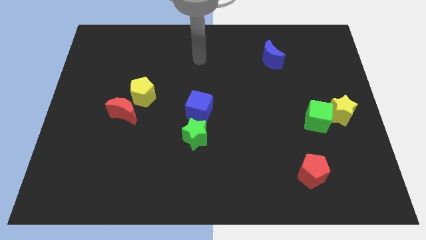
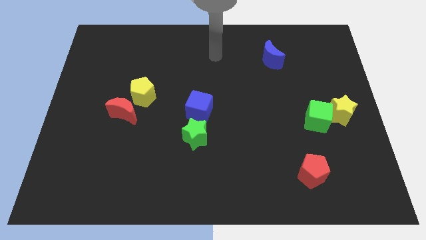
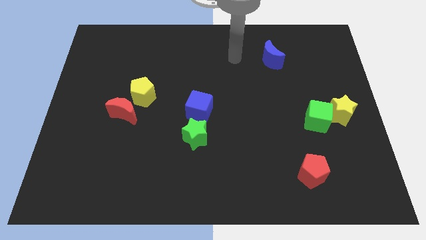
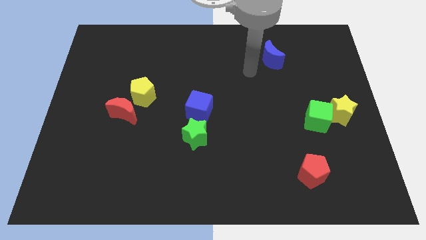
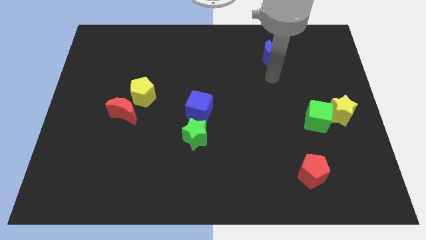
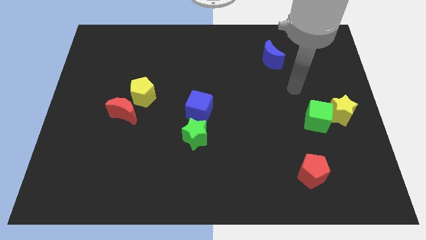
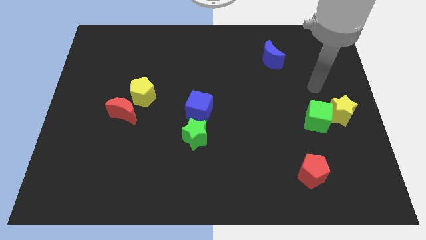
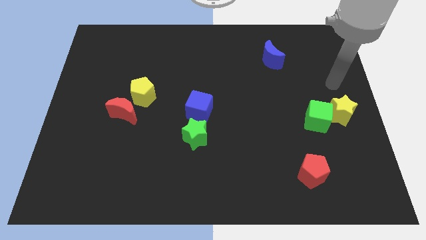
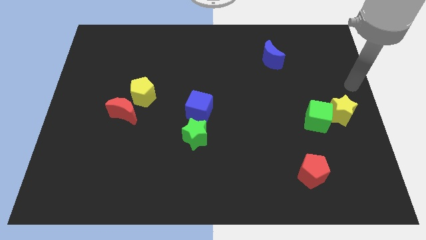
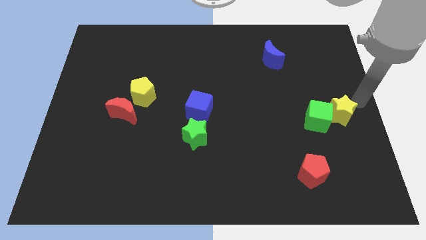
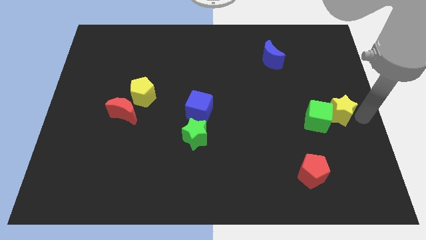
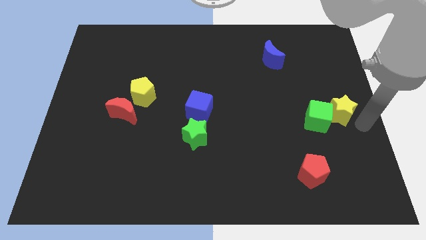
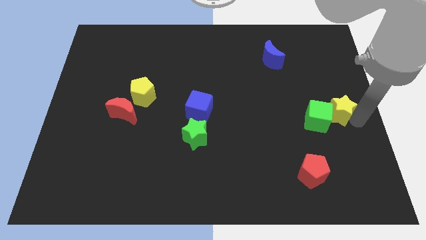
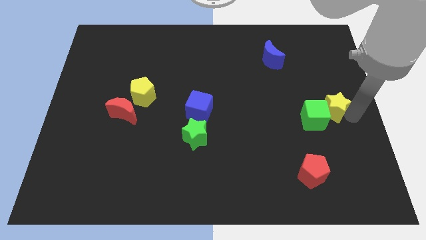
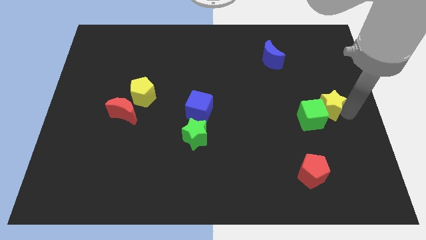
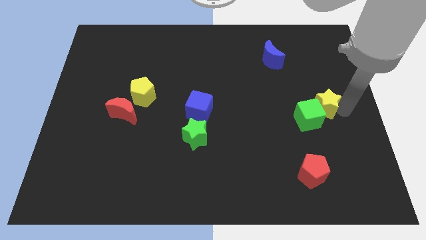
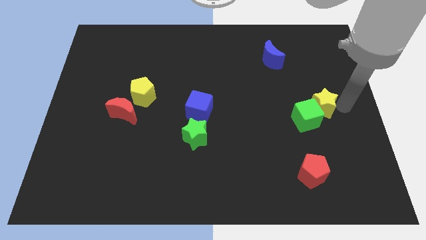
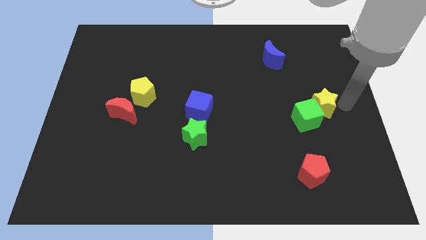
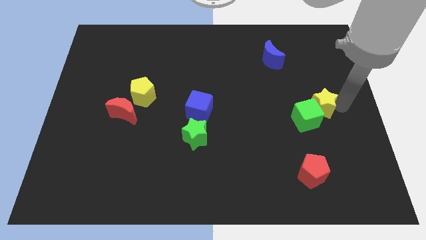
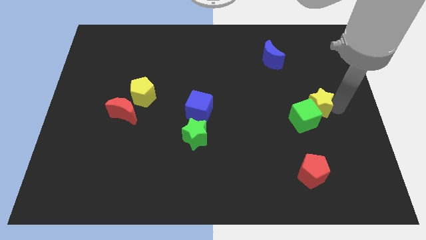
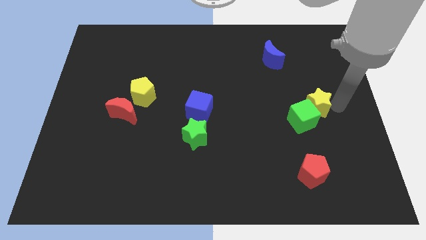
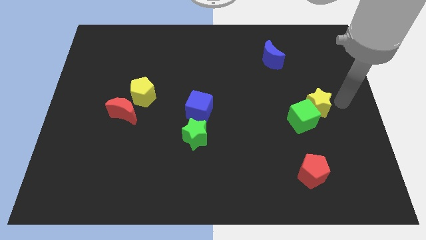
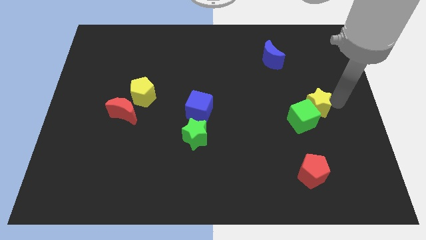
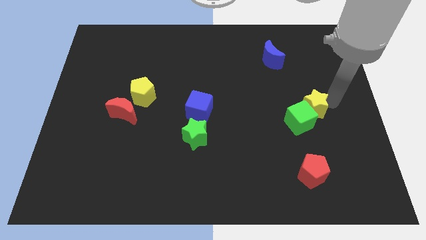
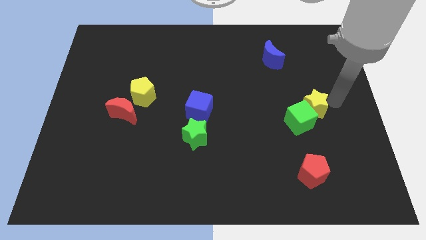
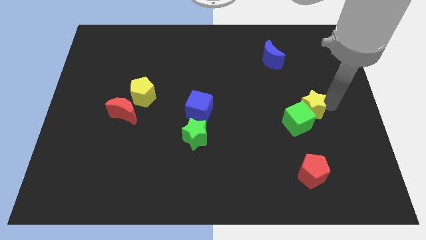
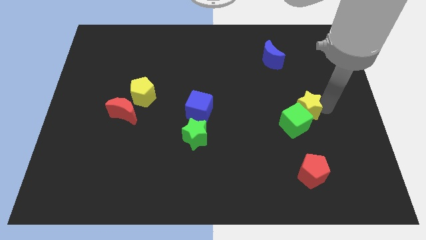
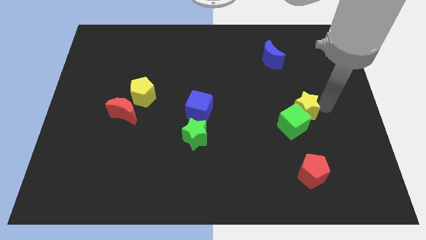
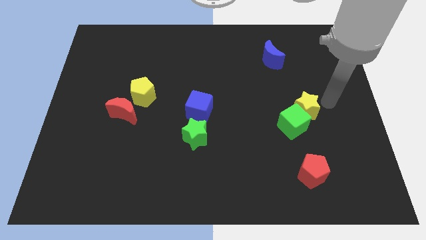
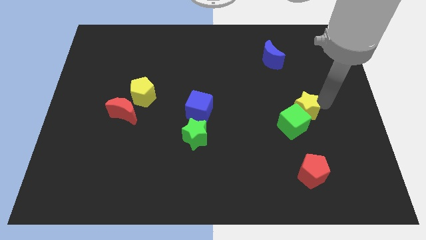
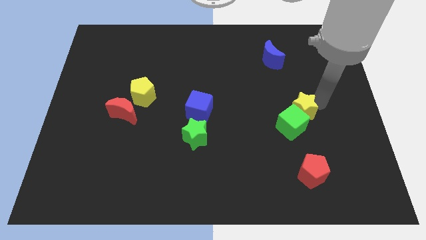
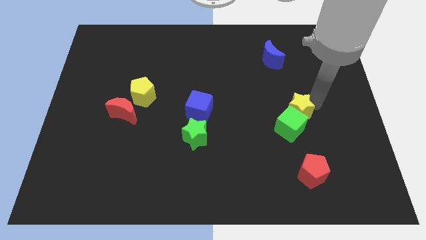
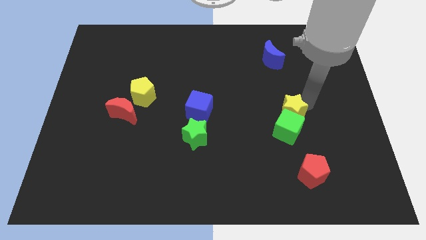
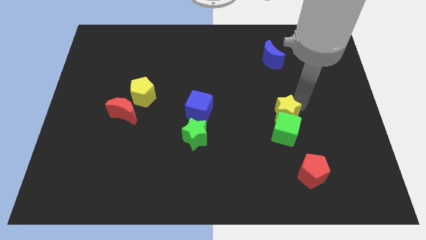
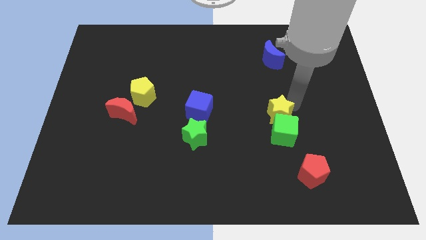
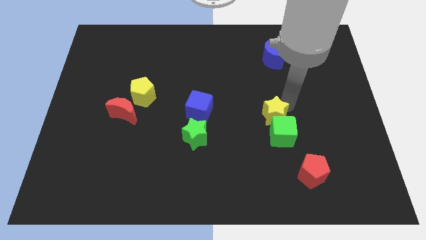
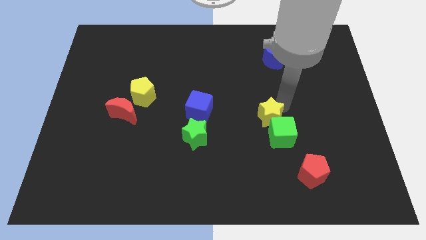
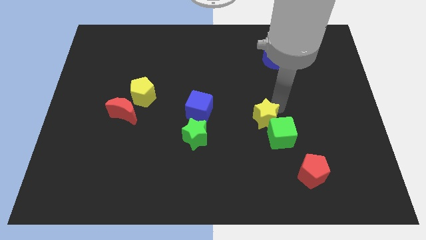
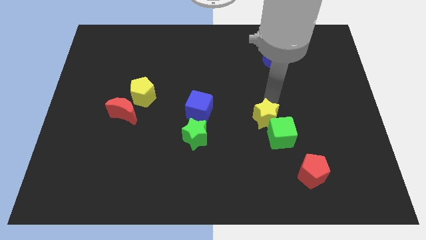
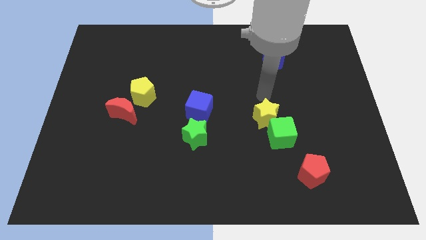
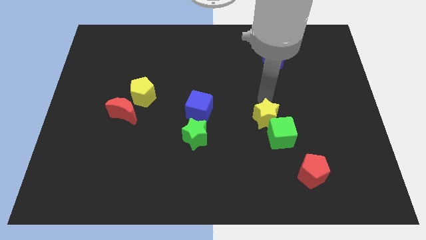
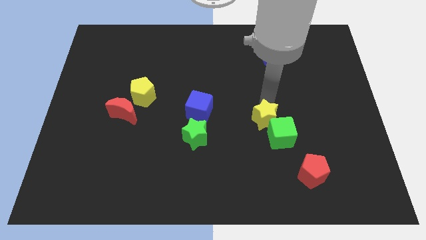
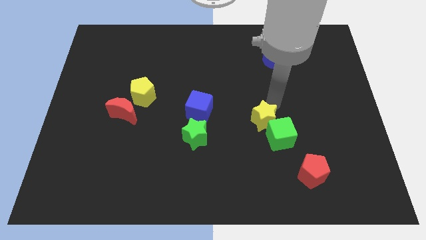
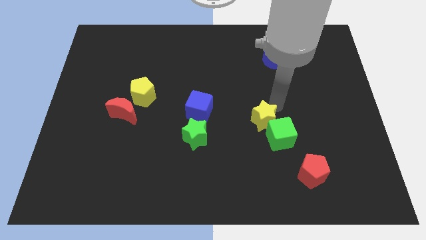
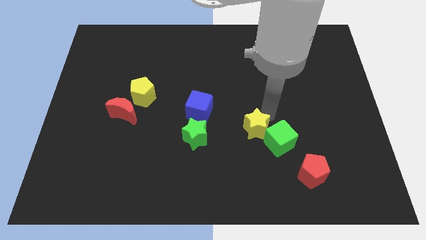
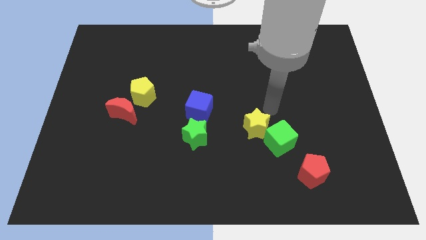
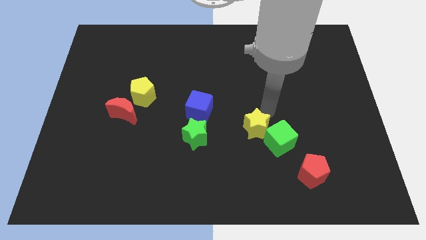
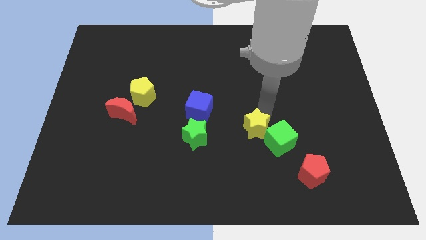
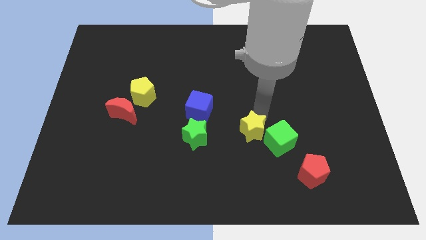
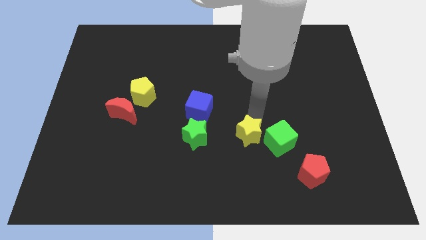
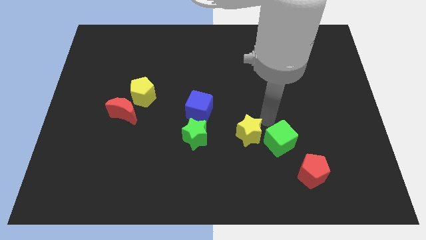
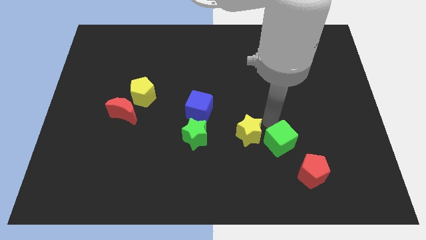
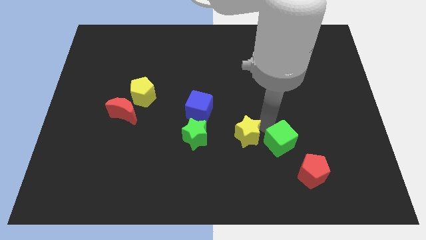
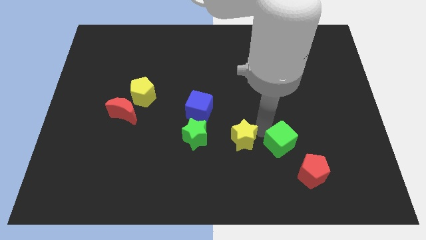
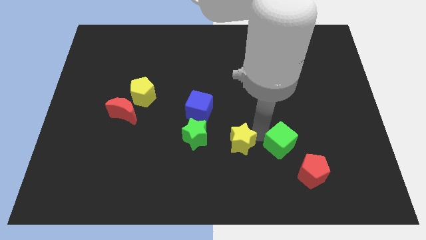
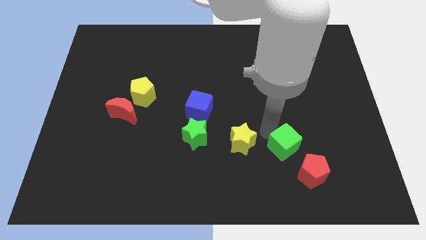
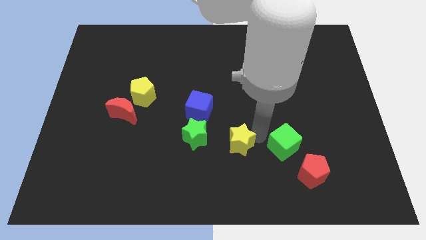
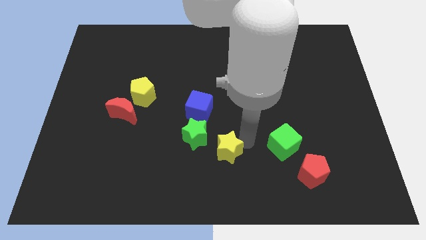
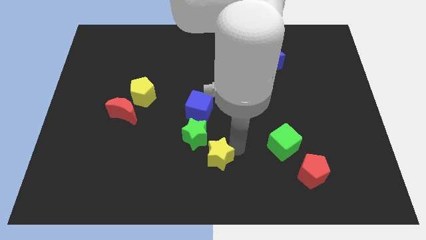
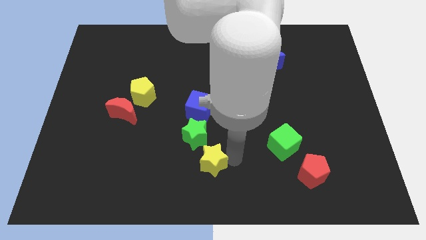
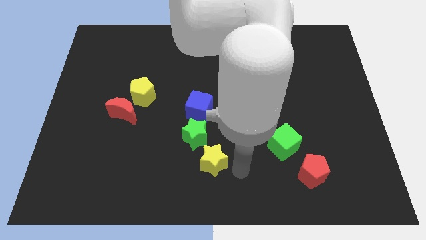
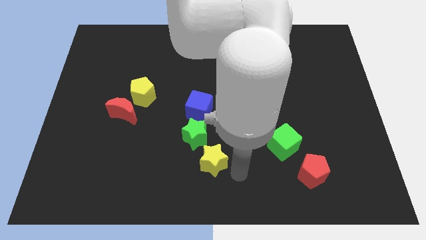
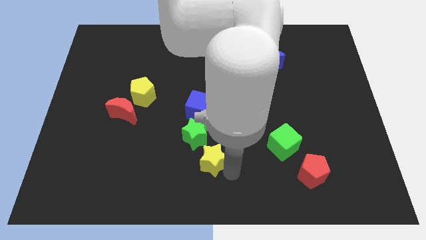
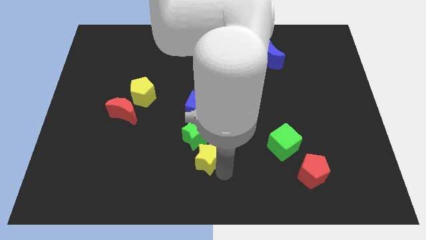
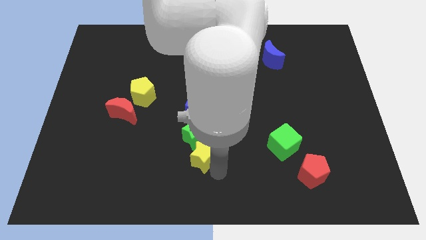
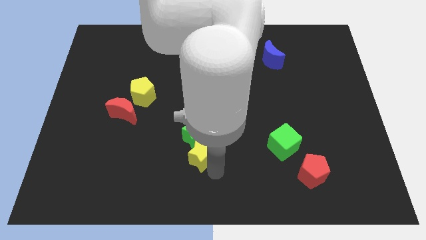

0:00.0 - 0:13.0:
put the yellow star to the bottom left of the green star

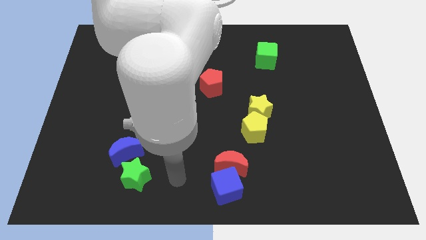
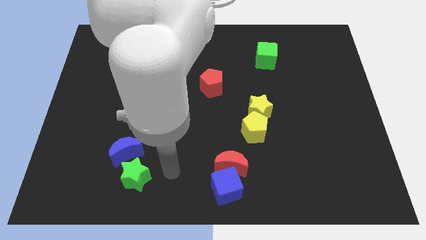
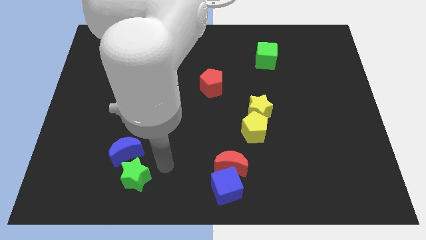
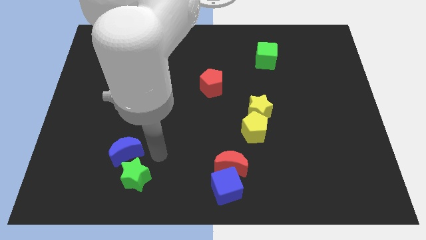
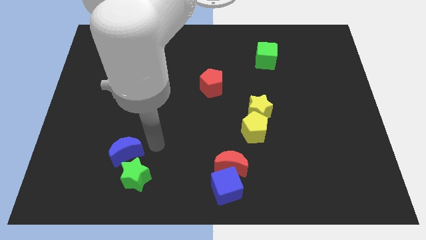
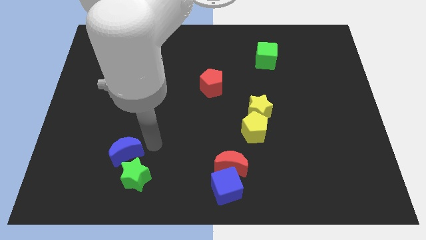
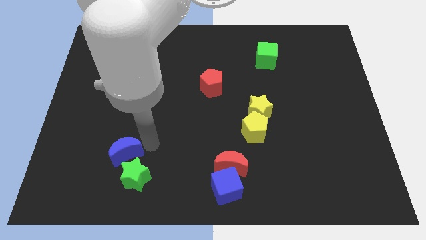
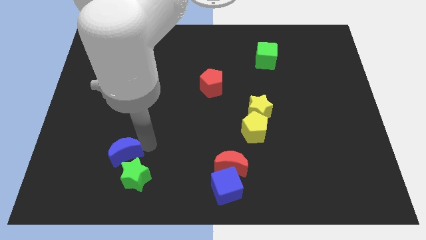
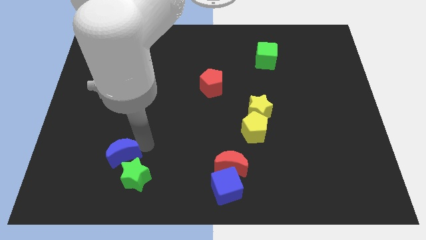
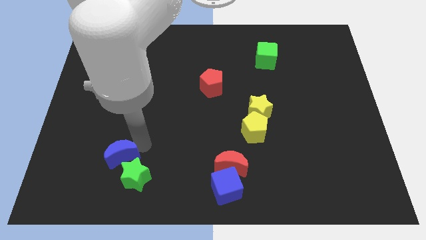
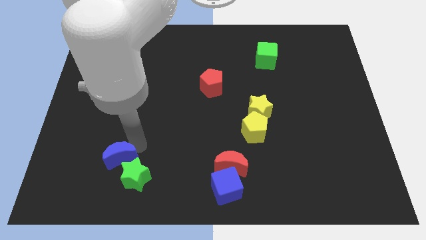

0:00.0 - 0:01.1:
push the blue moon left of the green star
